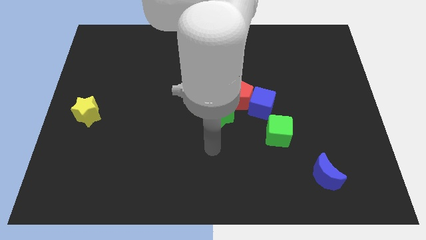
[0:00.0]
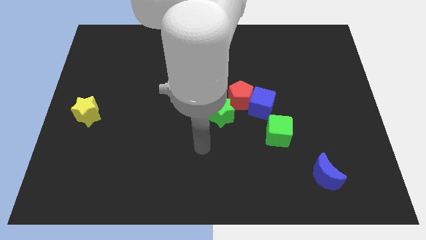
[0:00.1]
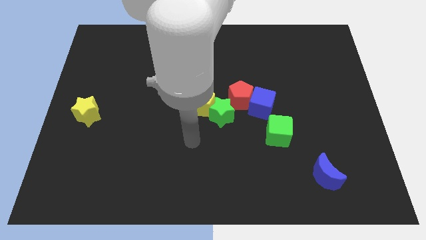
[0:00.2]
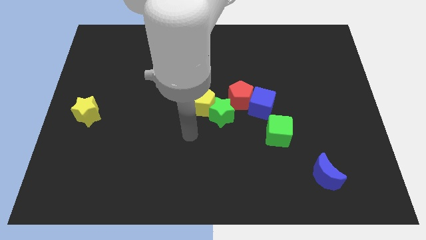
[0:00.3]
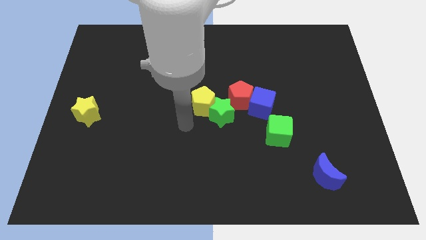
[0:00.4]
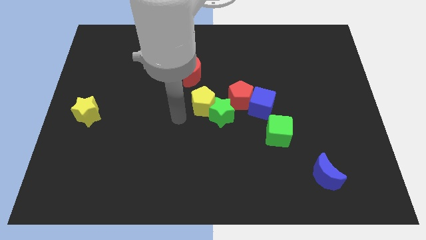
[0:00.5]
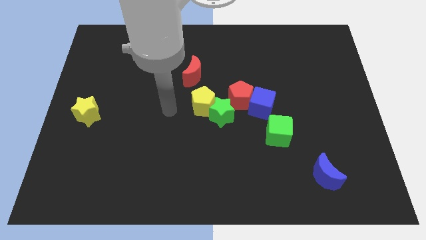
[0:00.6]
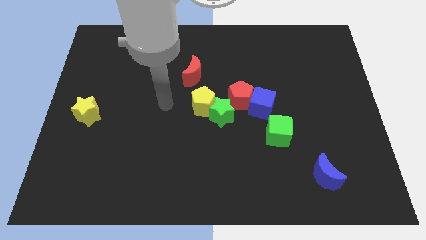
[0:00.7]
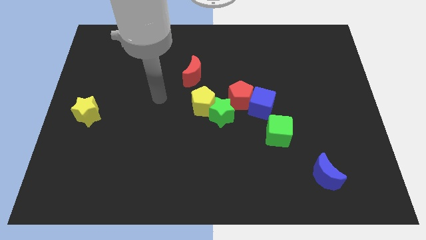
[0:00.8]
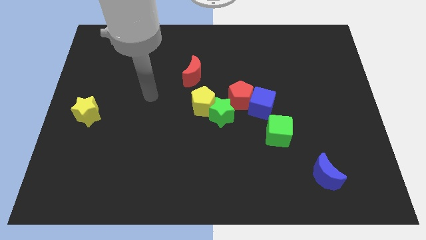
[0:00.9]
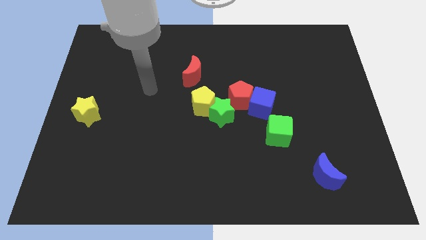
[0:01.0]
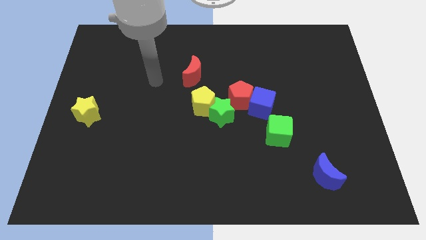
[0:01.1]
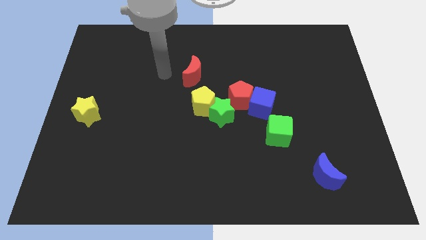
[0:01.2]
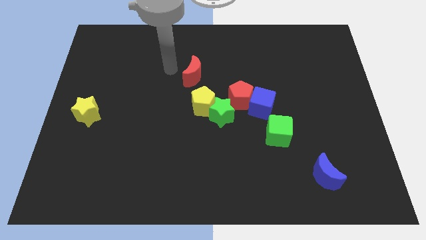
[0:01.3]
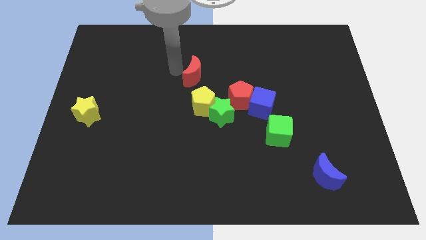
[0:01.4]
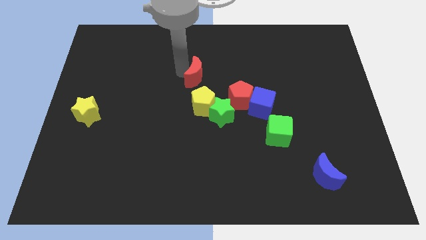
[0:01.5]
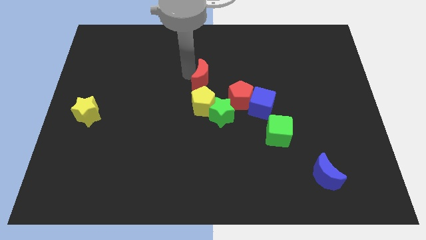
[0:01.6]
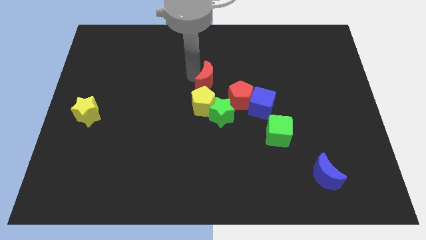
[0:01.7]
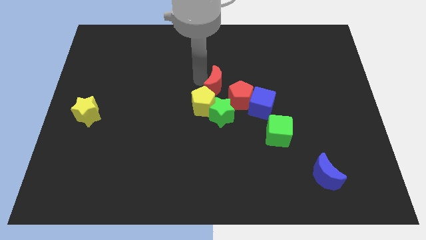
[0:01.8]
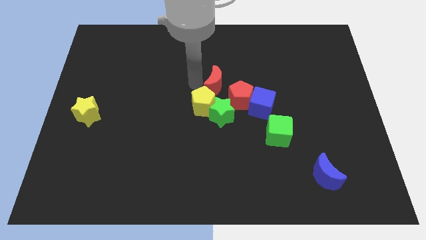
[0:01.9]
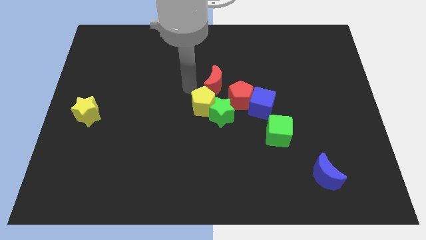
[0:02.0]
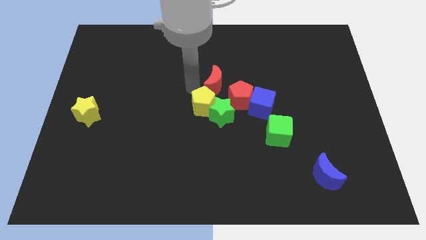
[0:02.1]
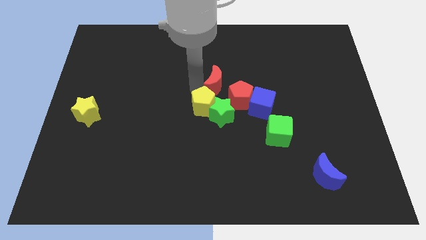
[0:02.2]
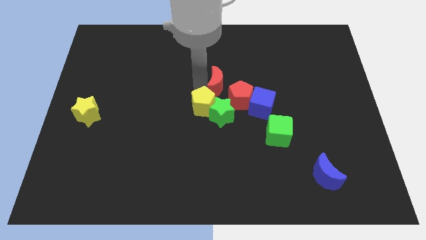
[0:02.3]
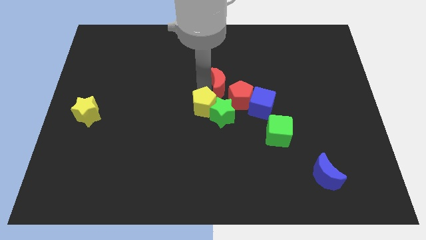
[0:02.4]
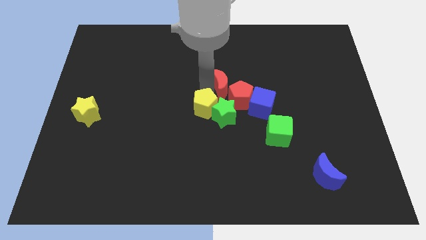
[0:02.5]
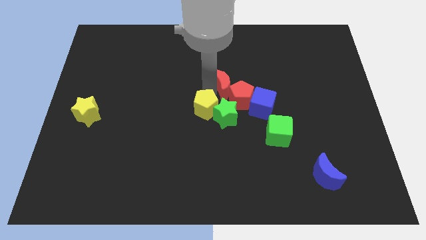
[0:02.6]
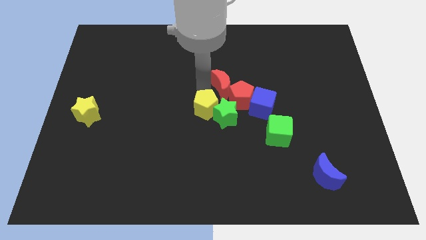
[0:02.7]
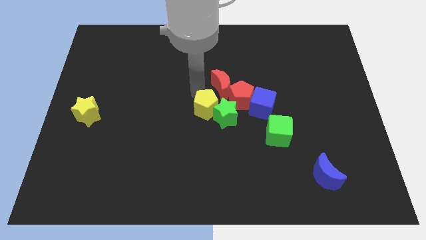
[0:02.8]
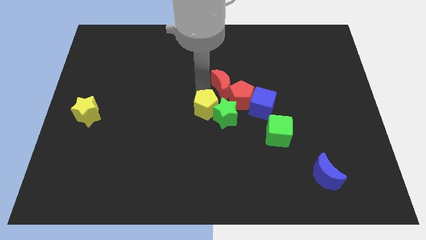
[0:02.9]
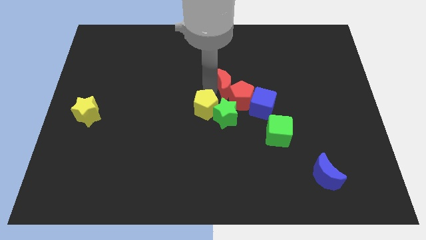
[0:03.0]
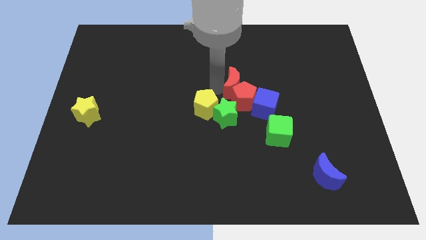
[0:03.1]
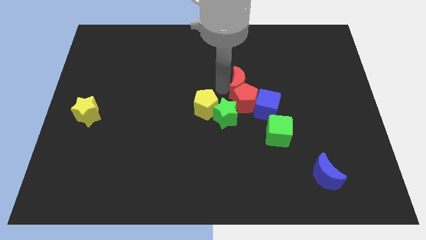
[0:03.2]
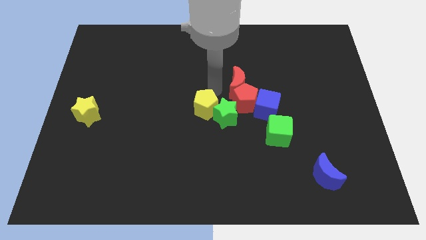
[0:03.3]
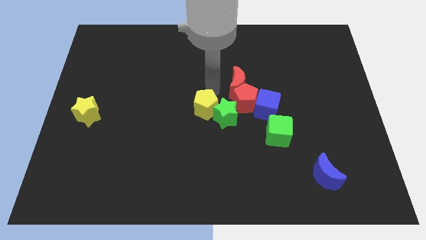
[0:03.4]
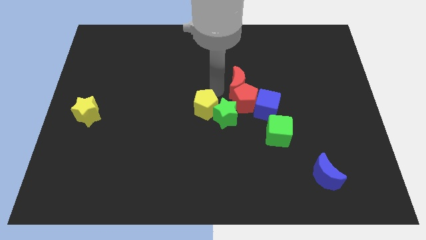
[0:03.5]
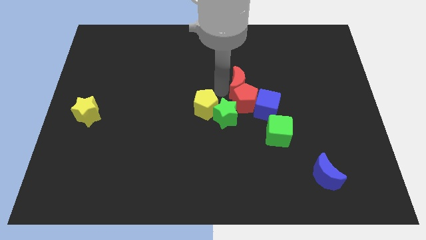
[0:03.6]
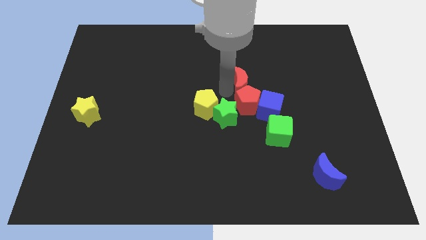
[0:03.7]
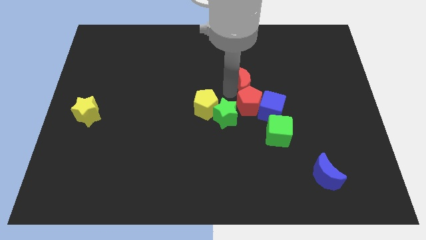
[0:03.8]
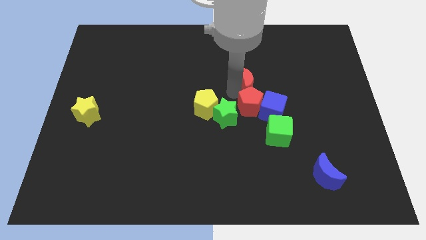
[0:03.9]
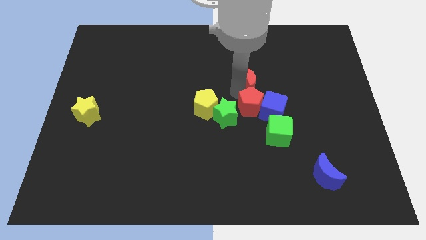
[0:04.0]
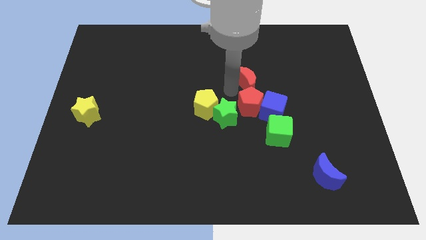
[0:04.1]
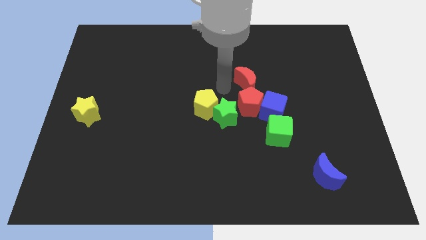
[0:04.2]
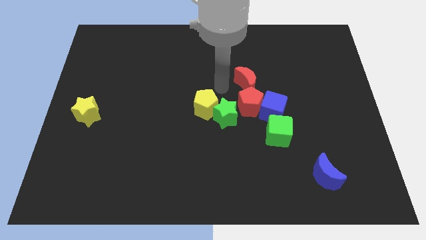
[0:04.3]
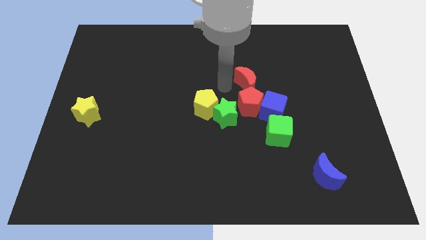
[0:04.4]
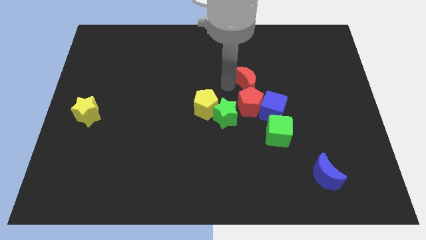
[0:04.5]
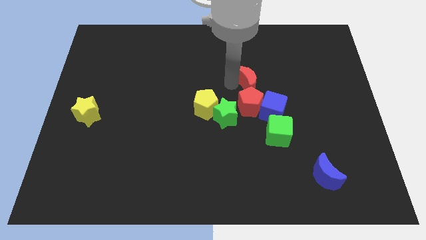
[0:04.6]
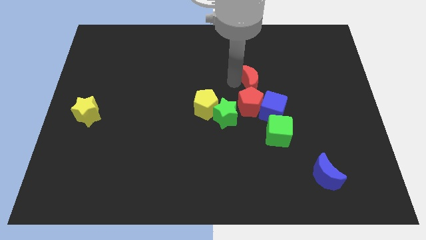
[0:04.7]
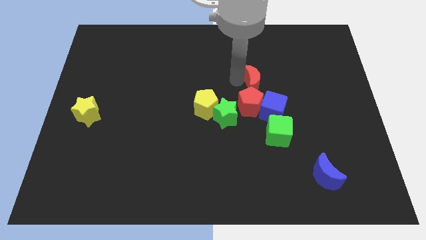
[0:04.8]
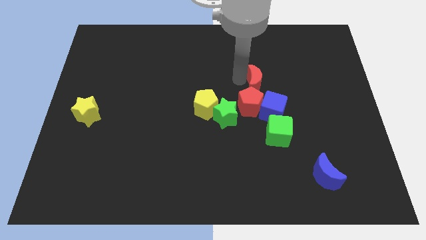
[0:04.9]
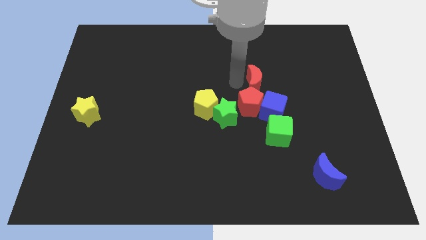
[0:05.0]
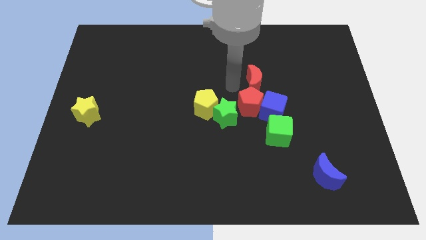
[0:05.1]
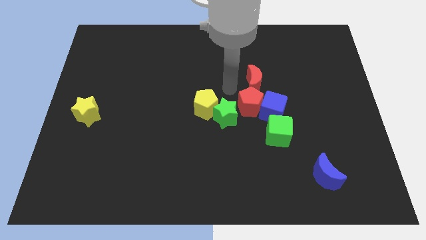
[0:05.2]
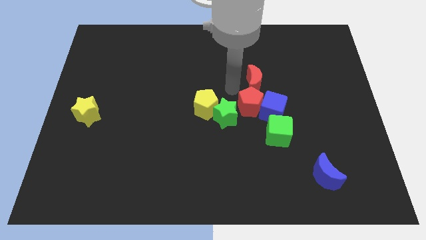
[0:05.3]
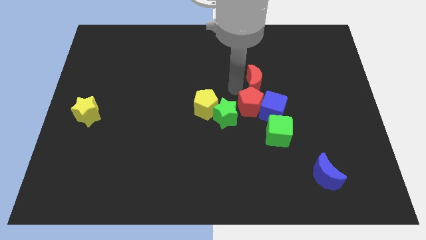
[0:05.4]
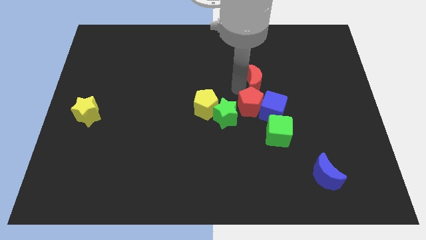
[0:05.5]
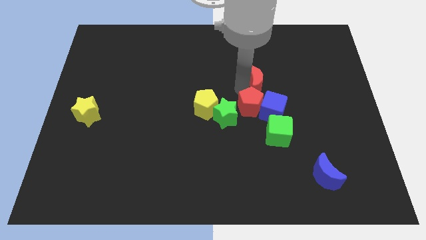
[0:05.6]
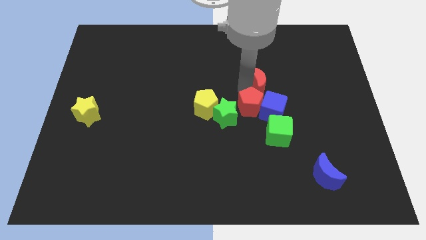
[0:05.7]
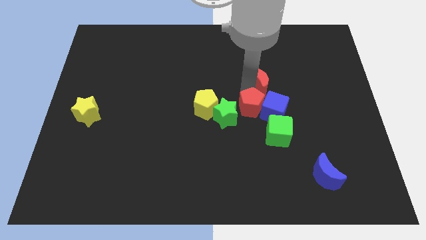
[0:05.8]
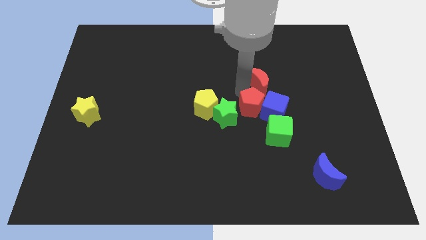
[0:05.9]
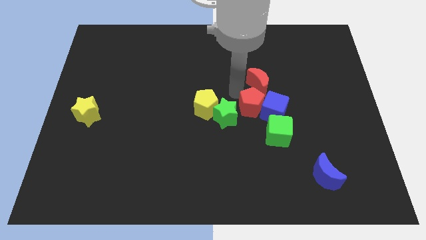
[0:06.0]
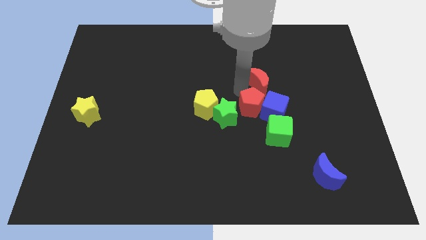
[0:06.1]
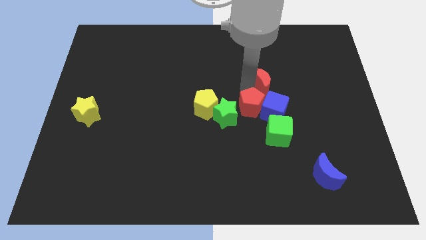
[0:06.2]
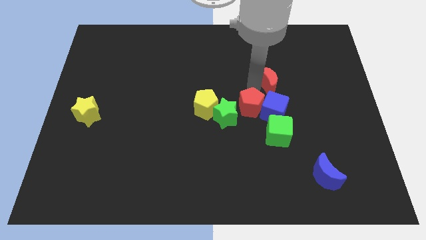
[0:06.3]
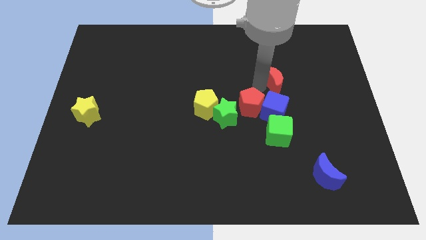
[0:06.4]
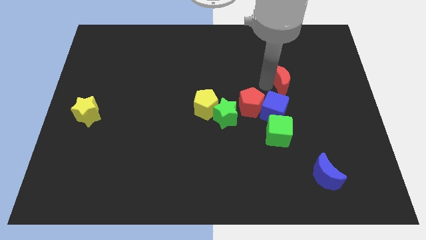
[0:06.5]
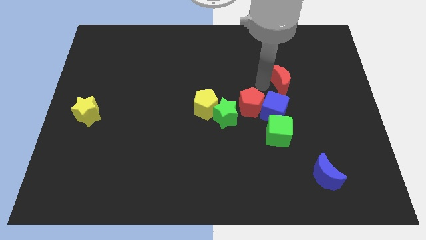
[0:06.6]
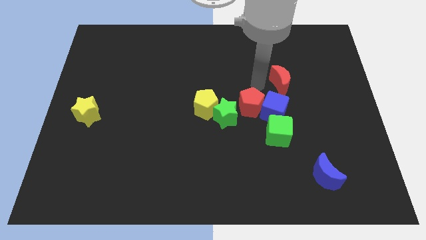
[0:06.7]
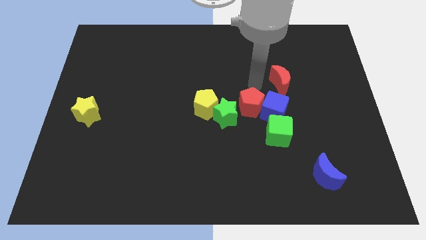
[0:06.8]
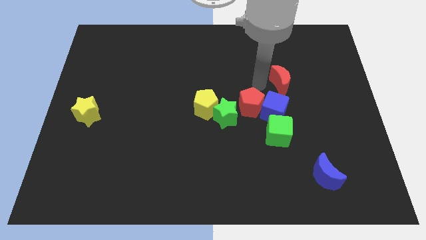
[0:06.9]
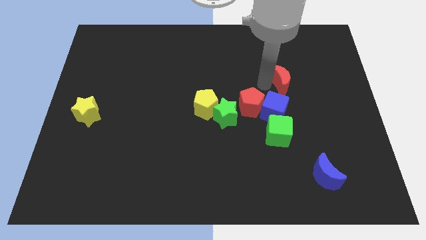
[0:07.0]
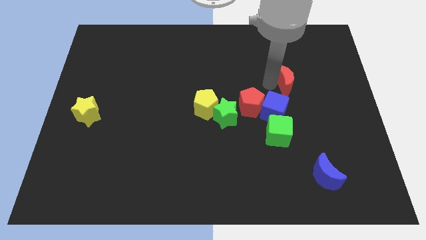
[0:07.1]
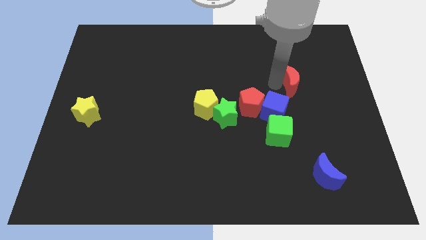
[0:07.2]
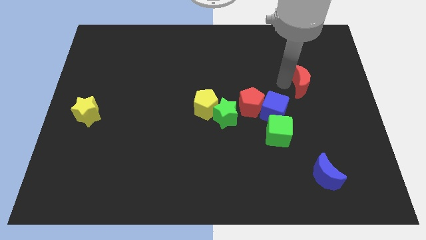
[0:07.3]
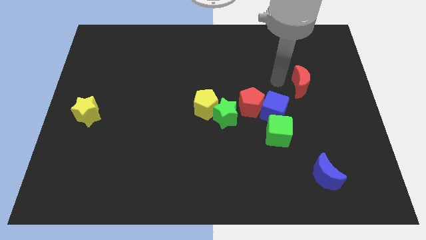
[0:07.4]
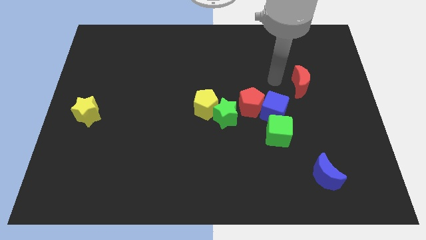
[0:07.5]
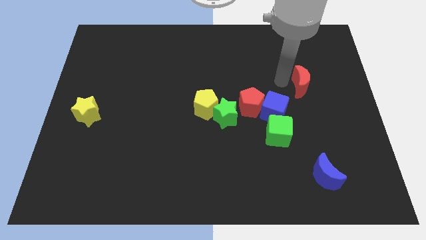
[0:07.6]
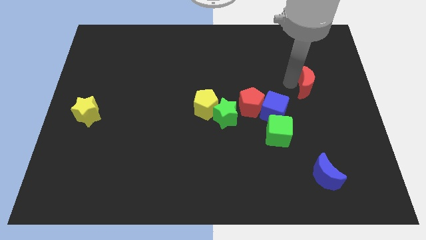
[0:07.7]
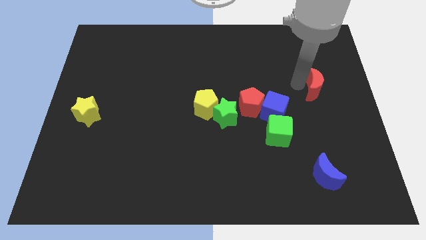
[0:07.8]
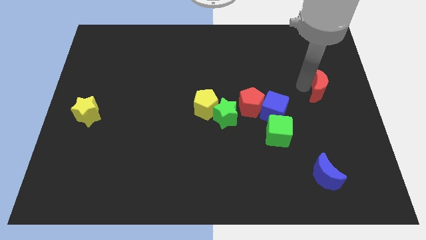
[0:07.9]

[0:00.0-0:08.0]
move the red moon to the right side
